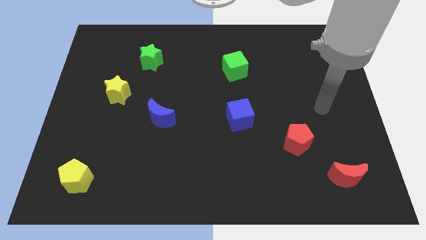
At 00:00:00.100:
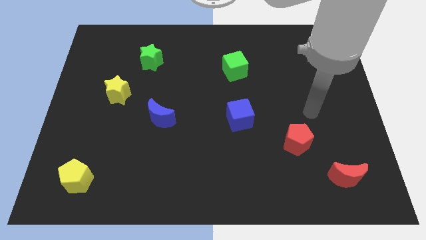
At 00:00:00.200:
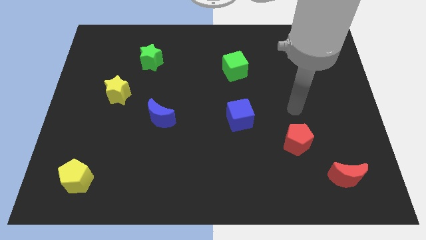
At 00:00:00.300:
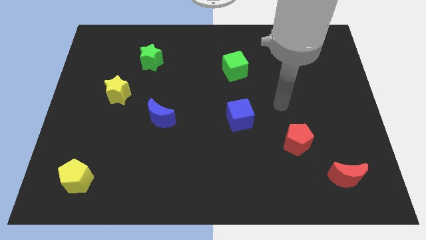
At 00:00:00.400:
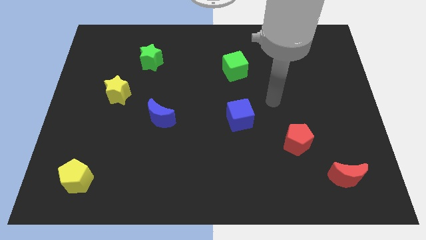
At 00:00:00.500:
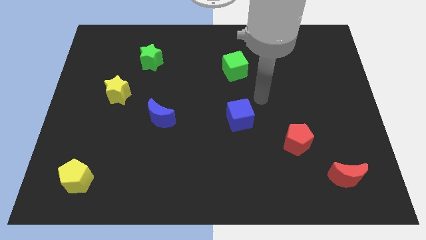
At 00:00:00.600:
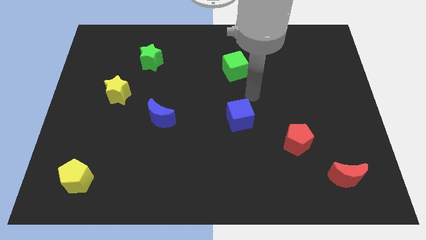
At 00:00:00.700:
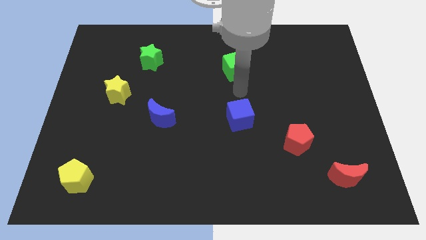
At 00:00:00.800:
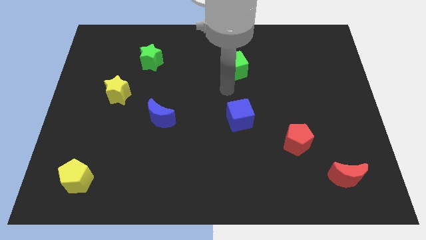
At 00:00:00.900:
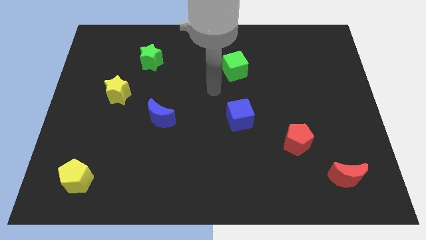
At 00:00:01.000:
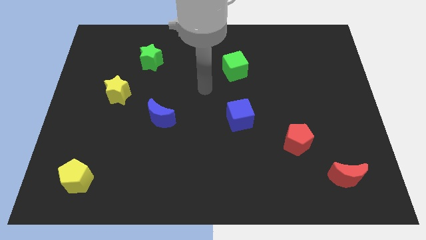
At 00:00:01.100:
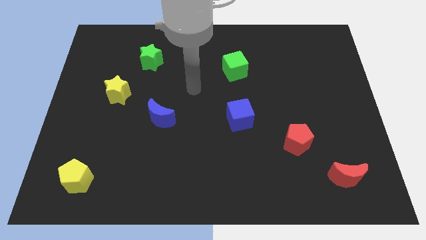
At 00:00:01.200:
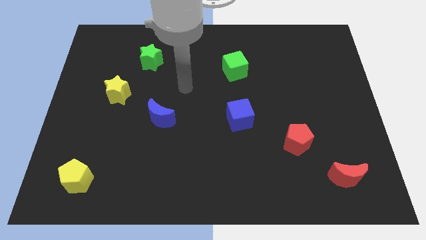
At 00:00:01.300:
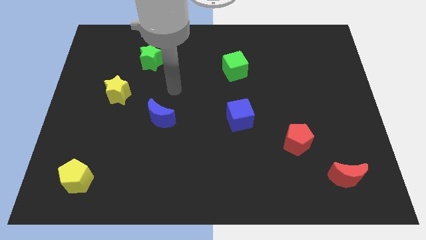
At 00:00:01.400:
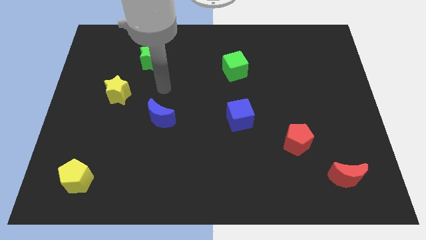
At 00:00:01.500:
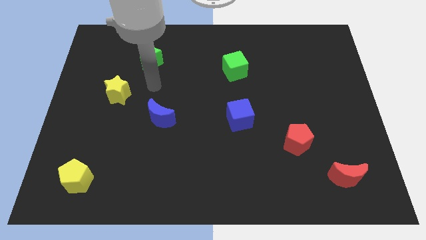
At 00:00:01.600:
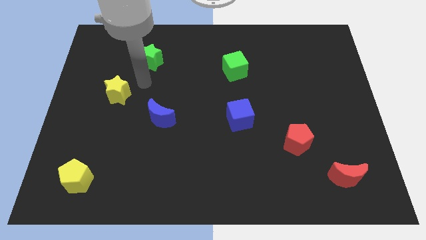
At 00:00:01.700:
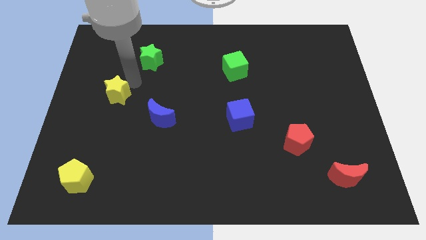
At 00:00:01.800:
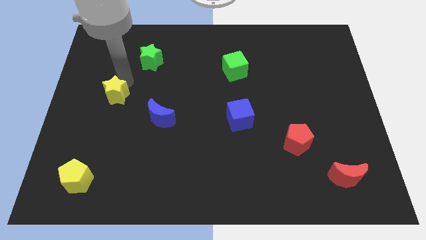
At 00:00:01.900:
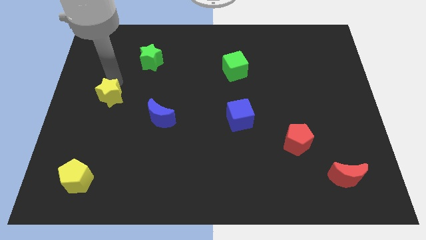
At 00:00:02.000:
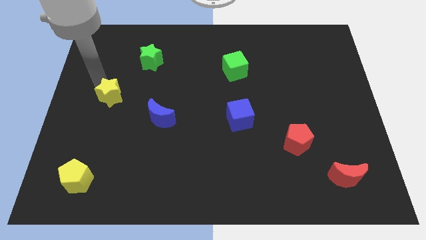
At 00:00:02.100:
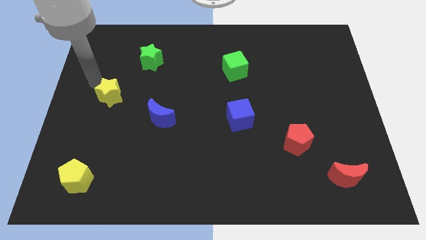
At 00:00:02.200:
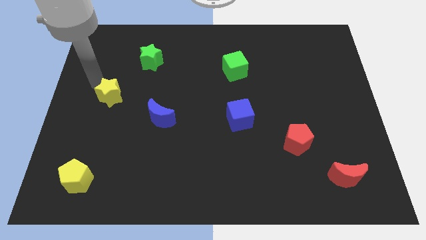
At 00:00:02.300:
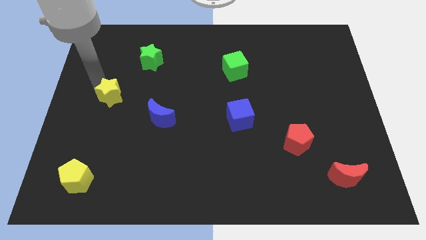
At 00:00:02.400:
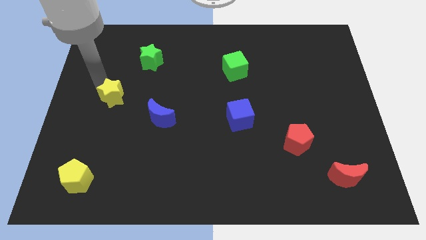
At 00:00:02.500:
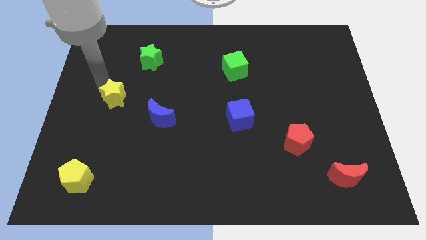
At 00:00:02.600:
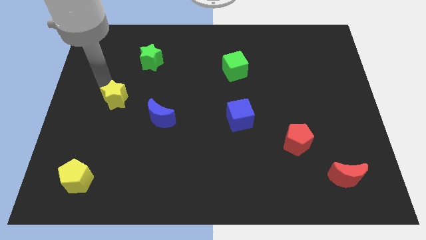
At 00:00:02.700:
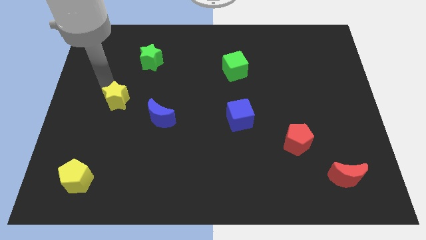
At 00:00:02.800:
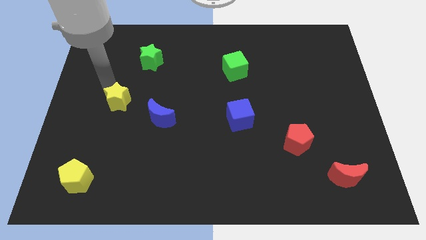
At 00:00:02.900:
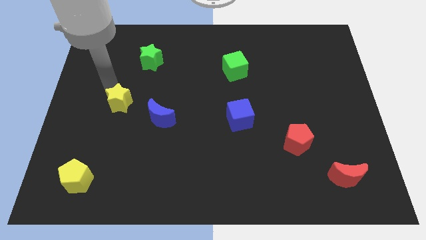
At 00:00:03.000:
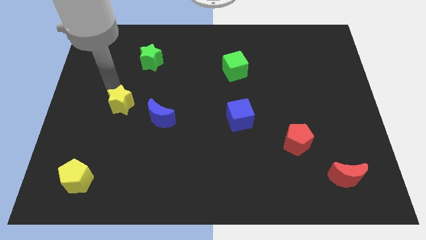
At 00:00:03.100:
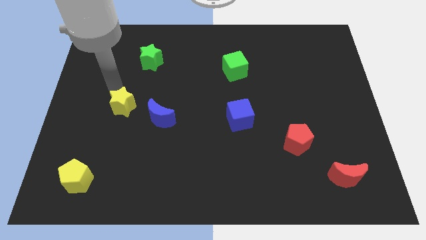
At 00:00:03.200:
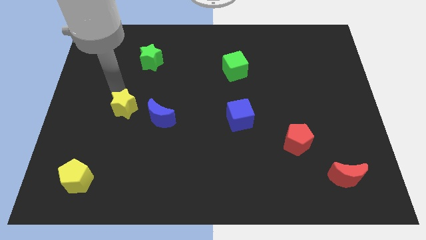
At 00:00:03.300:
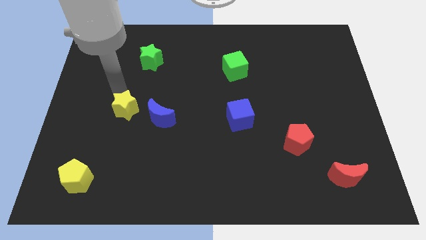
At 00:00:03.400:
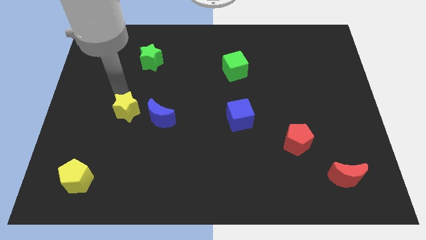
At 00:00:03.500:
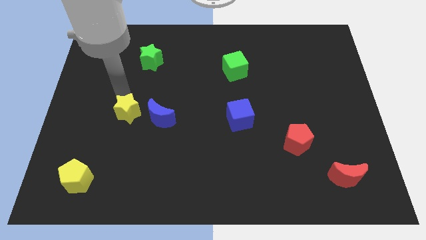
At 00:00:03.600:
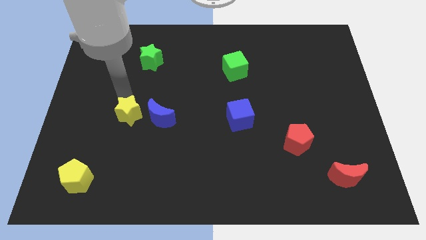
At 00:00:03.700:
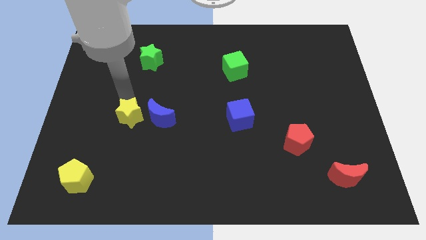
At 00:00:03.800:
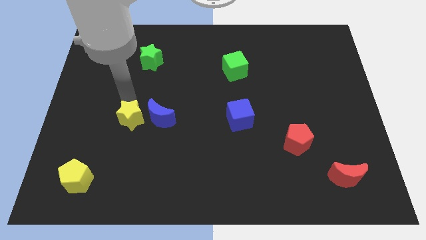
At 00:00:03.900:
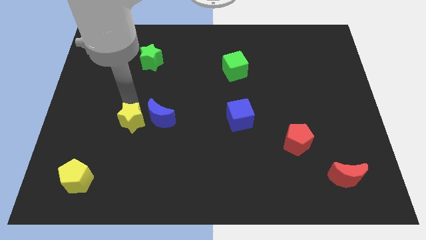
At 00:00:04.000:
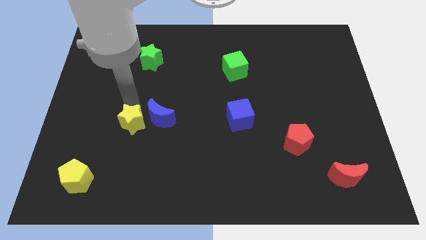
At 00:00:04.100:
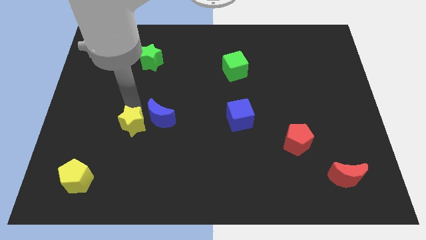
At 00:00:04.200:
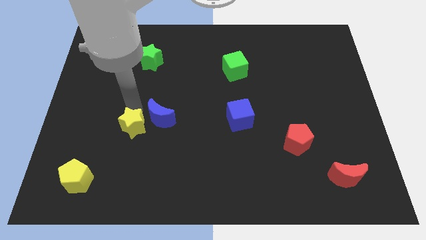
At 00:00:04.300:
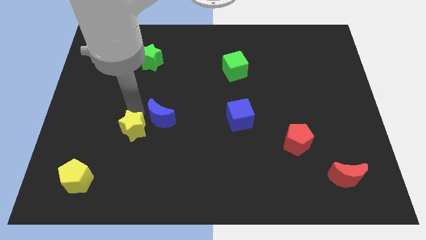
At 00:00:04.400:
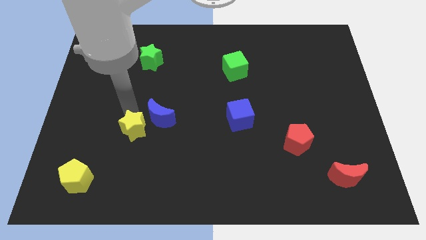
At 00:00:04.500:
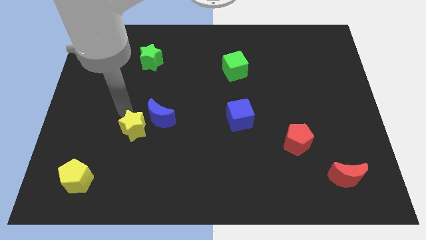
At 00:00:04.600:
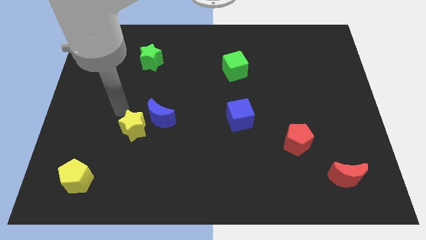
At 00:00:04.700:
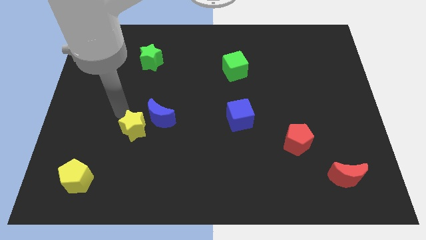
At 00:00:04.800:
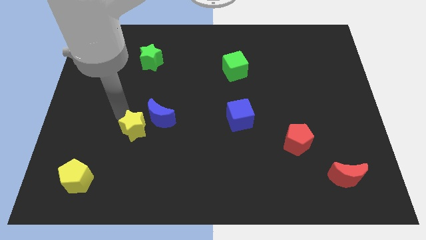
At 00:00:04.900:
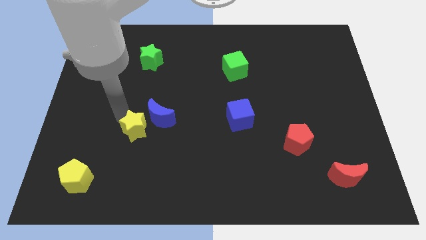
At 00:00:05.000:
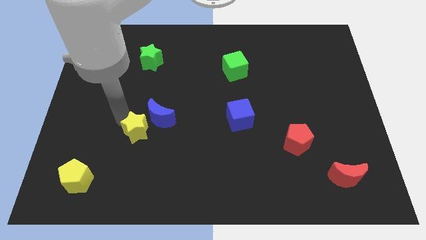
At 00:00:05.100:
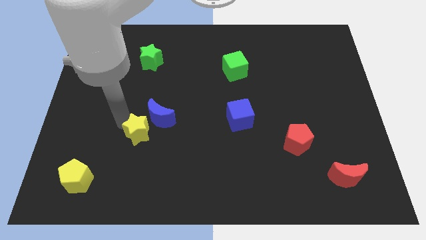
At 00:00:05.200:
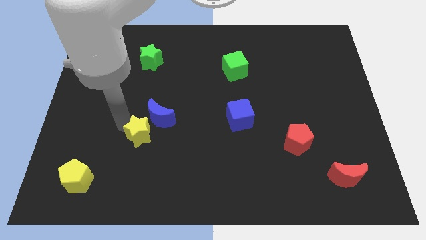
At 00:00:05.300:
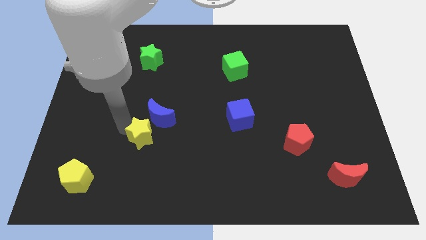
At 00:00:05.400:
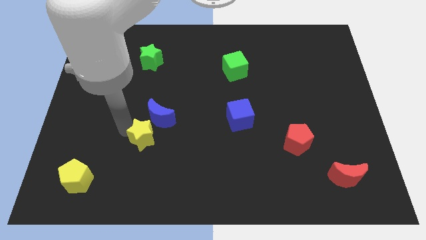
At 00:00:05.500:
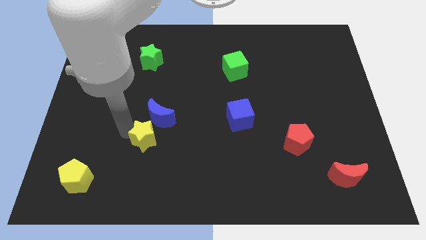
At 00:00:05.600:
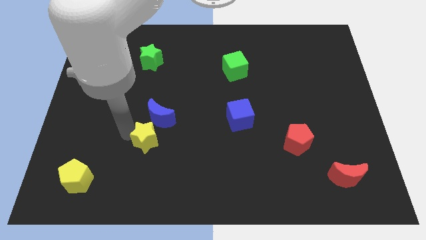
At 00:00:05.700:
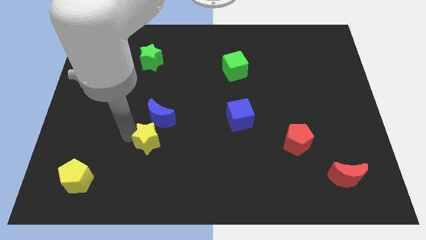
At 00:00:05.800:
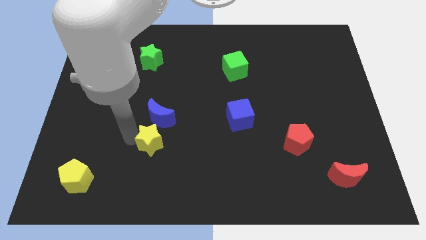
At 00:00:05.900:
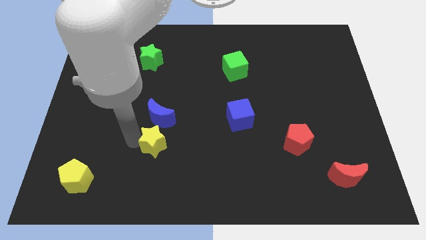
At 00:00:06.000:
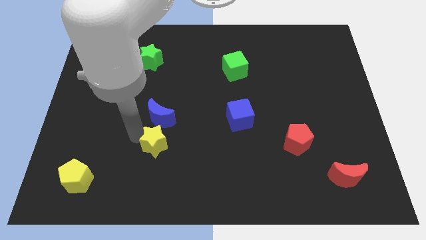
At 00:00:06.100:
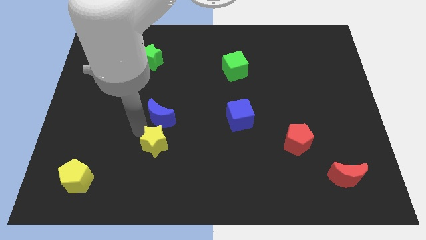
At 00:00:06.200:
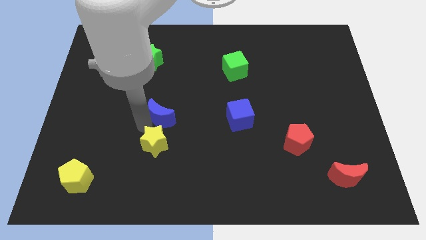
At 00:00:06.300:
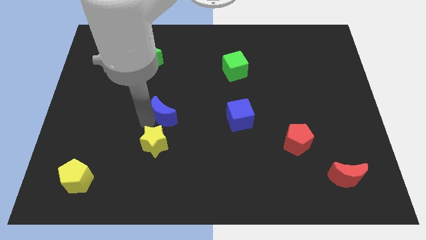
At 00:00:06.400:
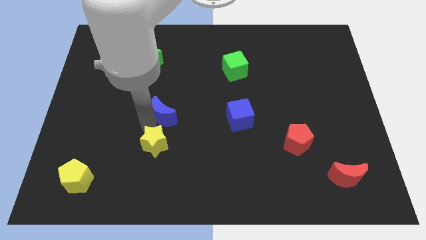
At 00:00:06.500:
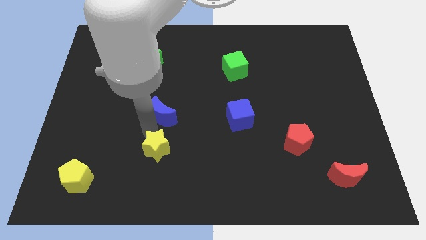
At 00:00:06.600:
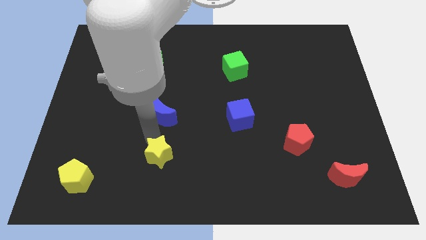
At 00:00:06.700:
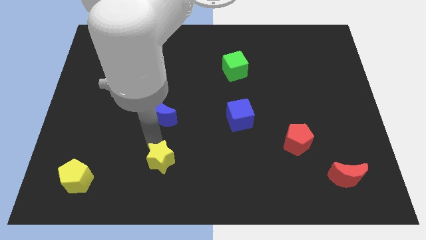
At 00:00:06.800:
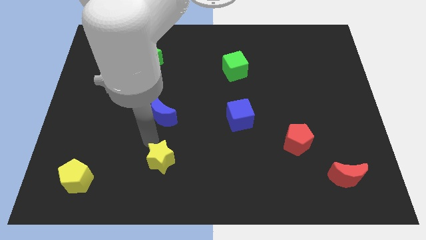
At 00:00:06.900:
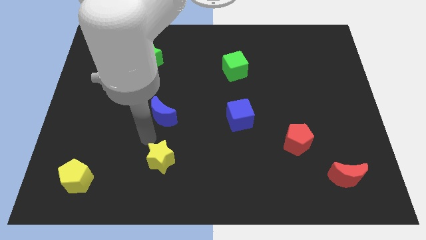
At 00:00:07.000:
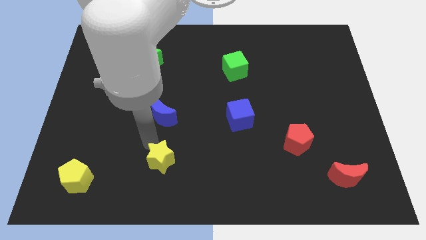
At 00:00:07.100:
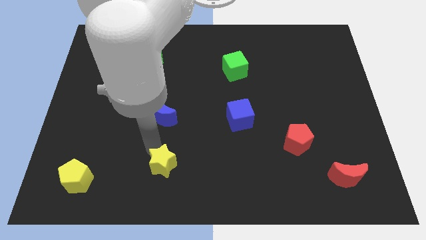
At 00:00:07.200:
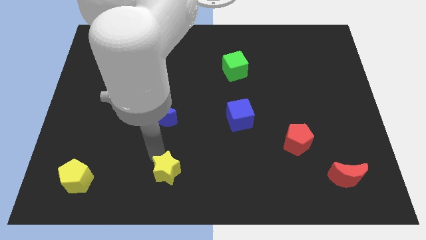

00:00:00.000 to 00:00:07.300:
put the yellow star to the bottom
